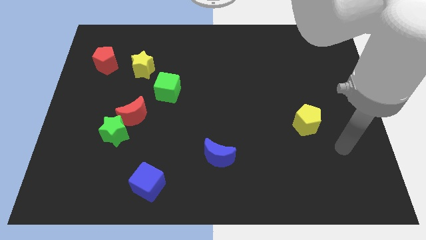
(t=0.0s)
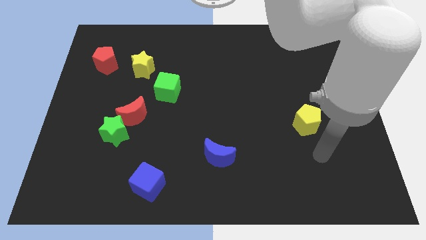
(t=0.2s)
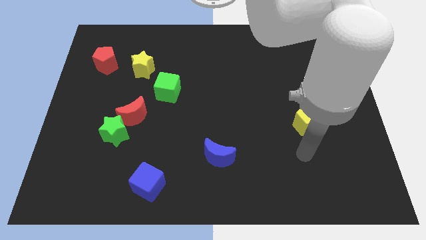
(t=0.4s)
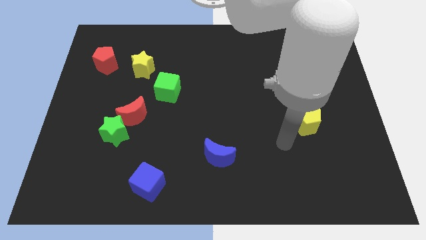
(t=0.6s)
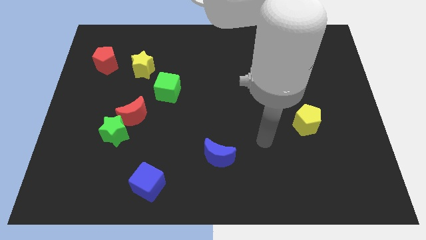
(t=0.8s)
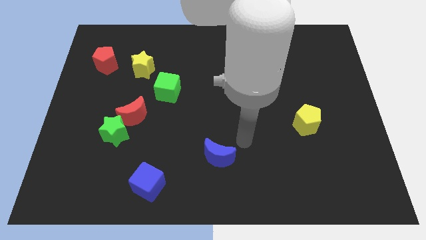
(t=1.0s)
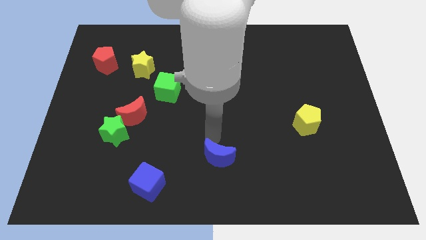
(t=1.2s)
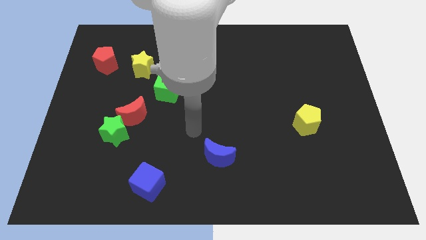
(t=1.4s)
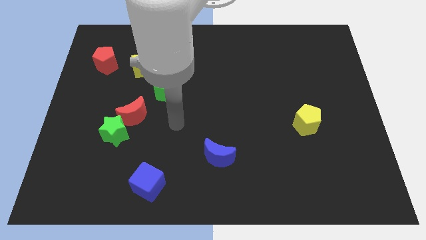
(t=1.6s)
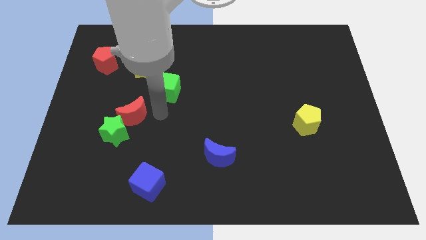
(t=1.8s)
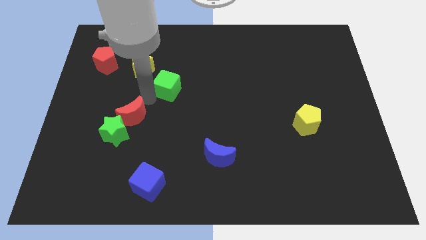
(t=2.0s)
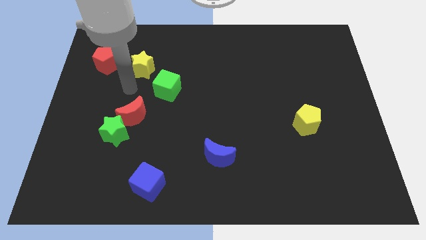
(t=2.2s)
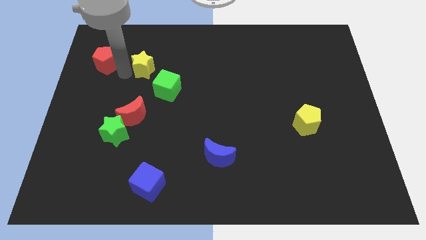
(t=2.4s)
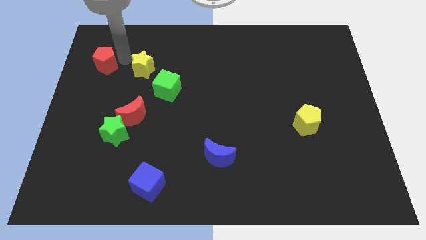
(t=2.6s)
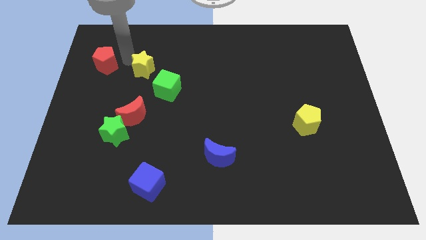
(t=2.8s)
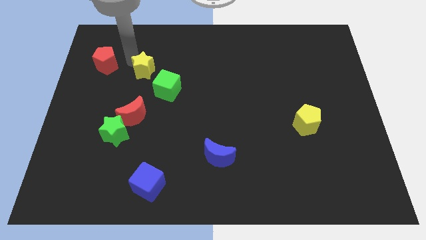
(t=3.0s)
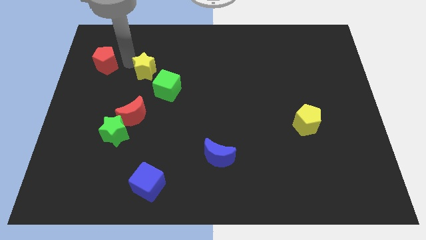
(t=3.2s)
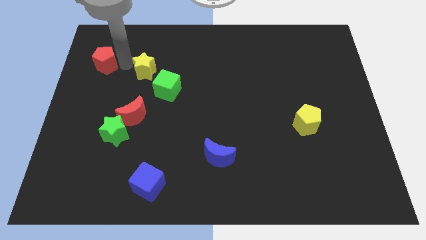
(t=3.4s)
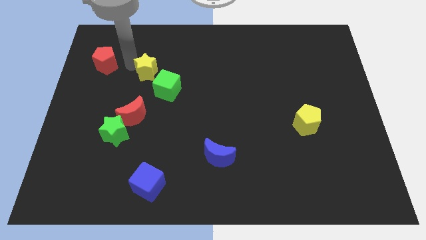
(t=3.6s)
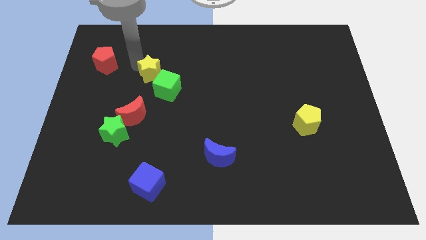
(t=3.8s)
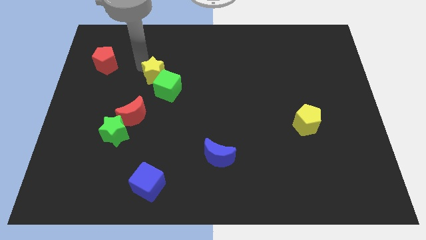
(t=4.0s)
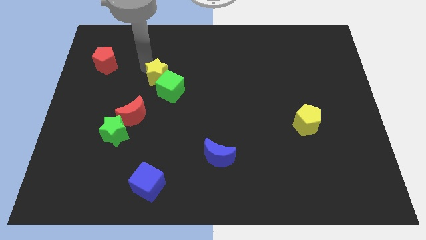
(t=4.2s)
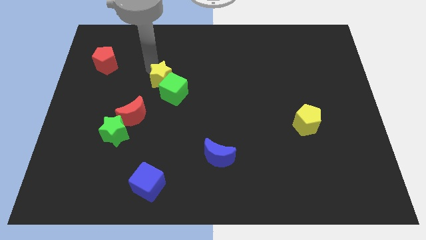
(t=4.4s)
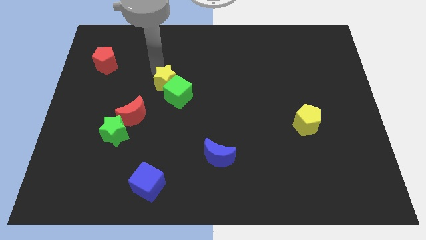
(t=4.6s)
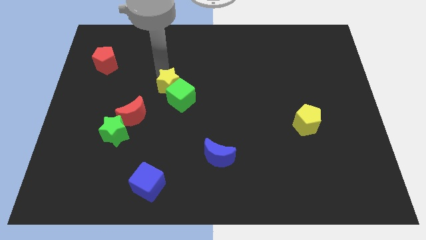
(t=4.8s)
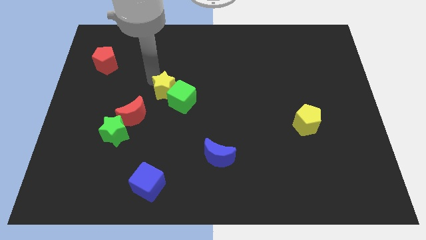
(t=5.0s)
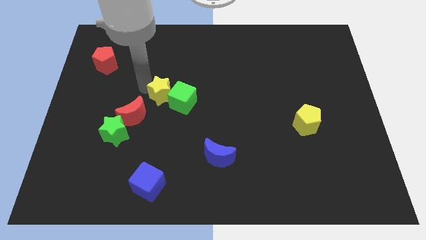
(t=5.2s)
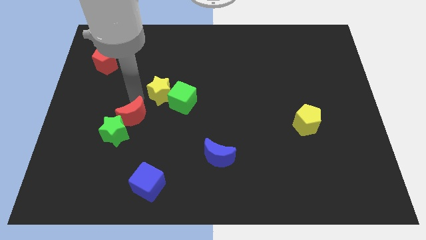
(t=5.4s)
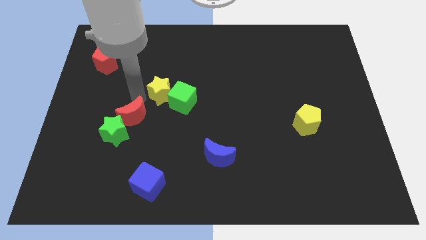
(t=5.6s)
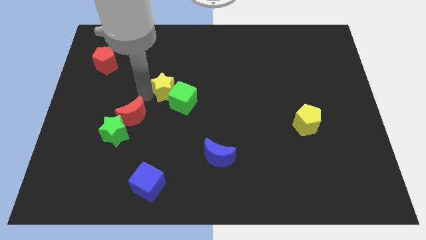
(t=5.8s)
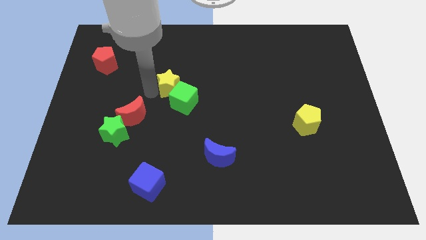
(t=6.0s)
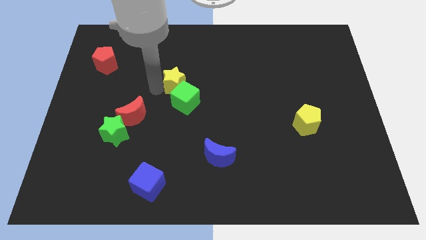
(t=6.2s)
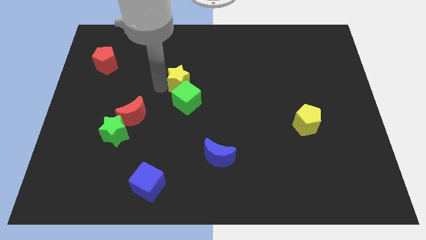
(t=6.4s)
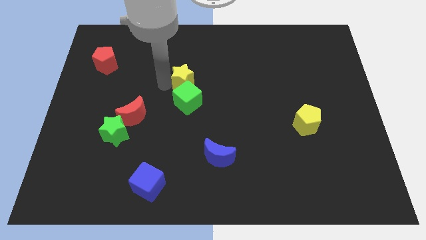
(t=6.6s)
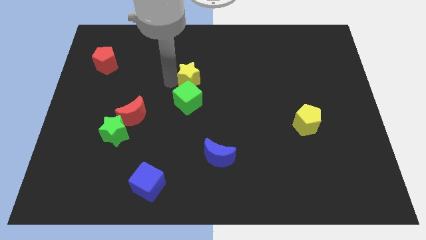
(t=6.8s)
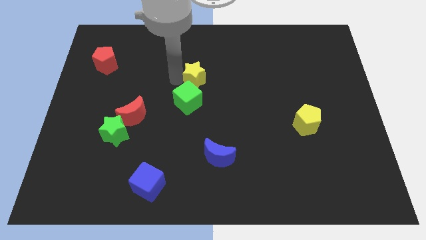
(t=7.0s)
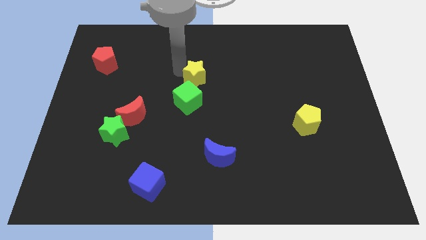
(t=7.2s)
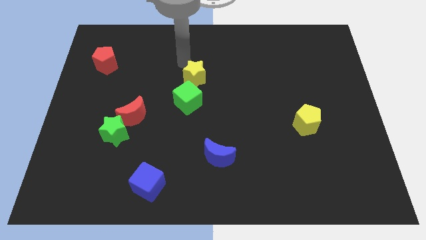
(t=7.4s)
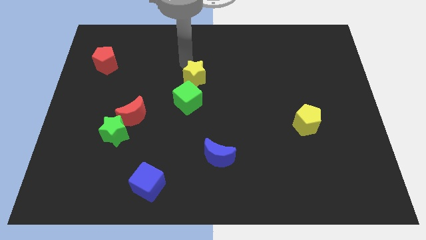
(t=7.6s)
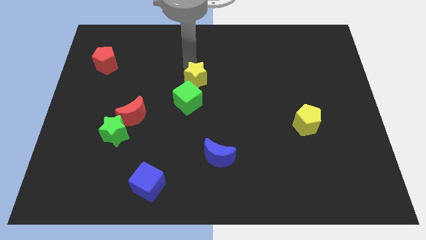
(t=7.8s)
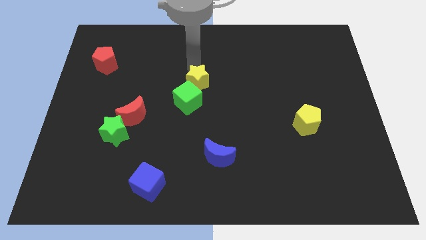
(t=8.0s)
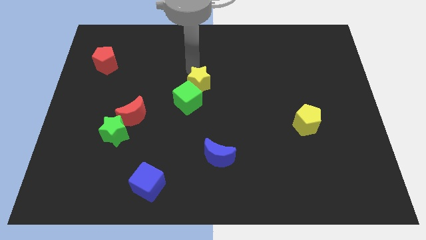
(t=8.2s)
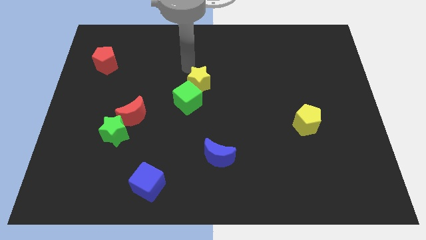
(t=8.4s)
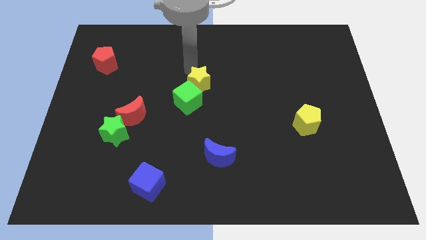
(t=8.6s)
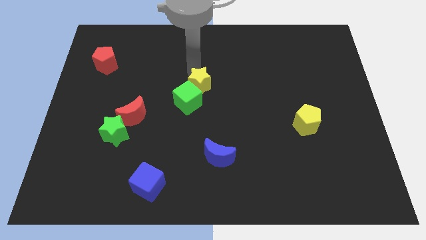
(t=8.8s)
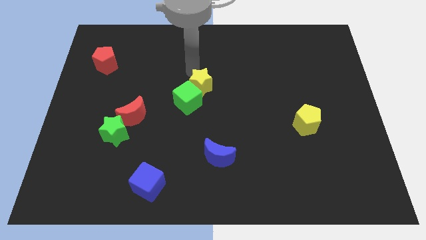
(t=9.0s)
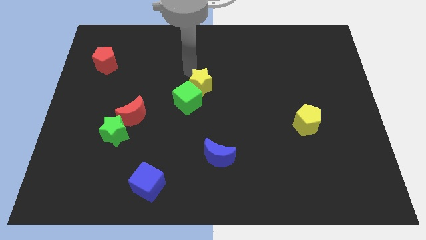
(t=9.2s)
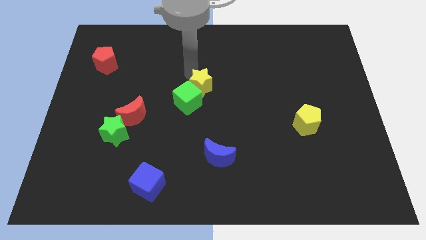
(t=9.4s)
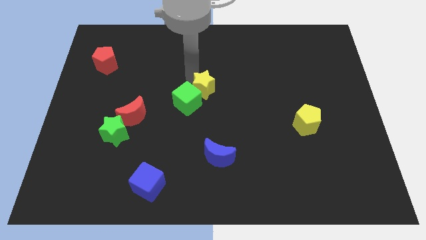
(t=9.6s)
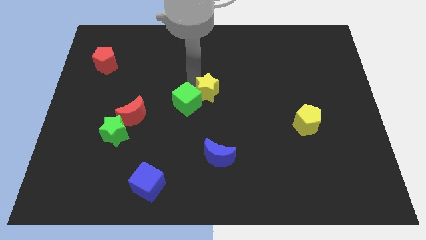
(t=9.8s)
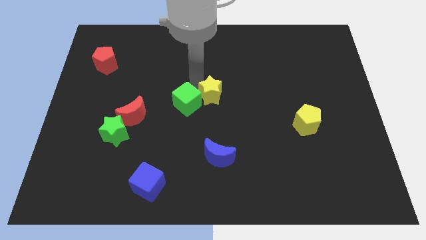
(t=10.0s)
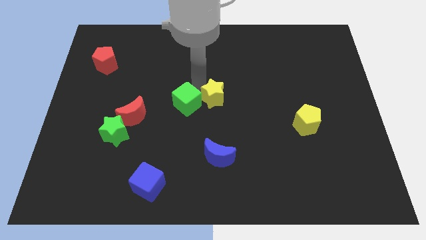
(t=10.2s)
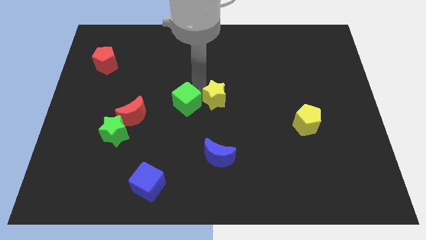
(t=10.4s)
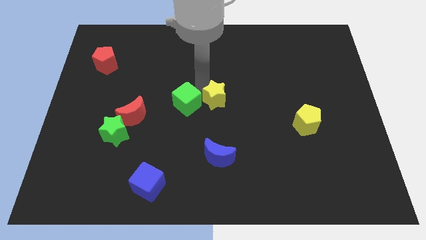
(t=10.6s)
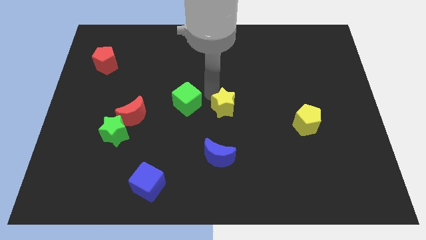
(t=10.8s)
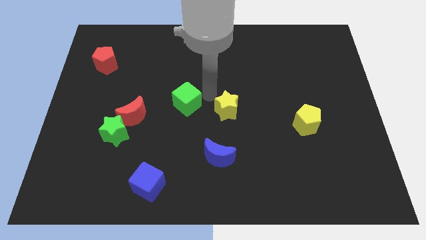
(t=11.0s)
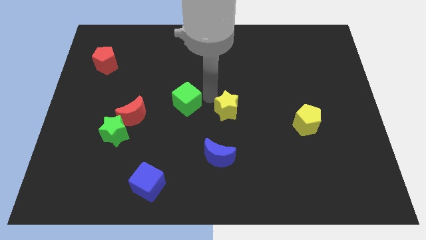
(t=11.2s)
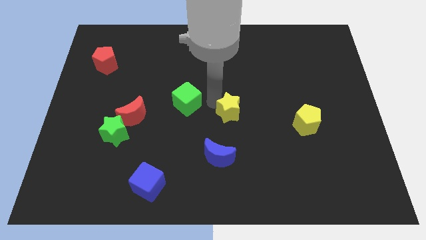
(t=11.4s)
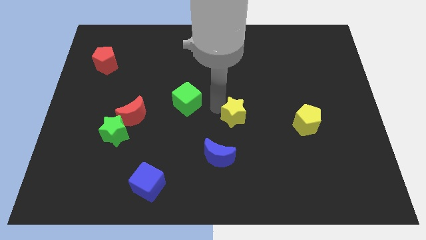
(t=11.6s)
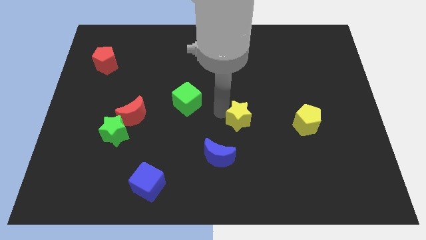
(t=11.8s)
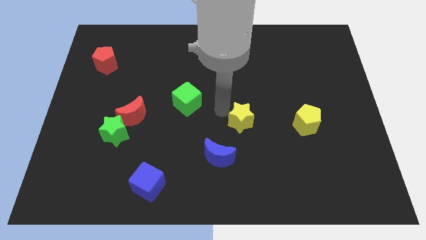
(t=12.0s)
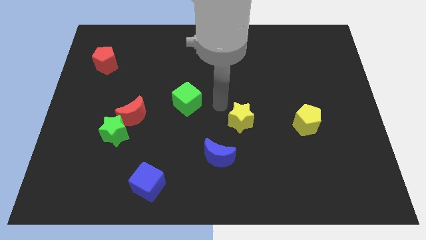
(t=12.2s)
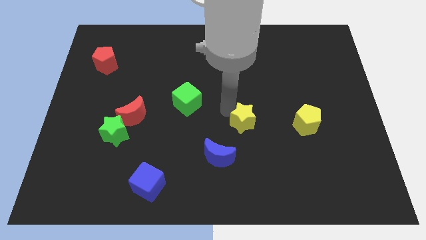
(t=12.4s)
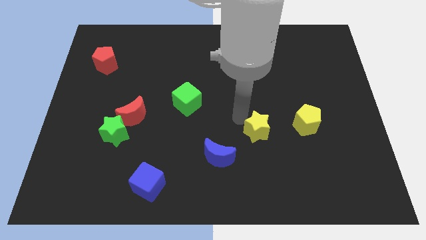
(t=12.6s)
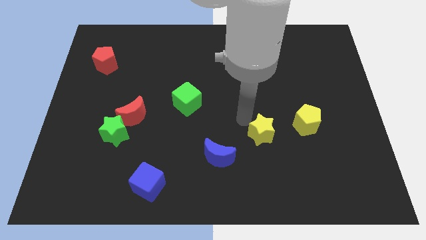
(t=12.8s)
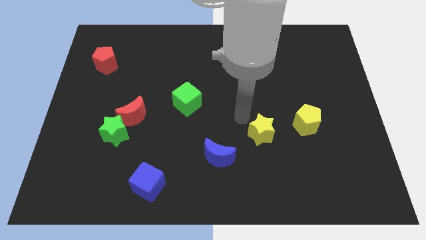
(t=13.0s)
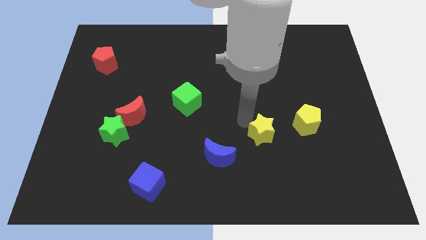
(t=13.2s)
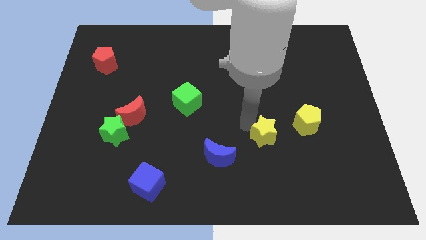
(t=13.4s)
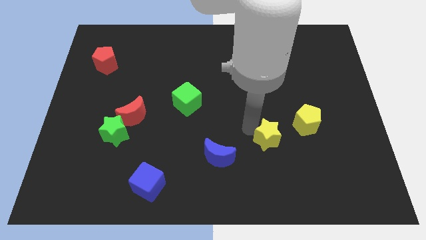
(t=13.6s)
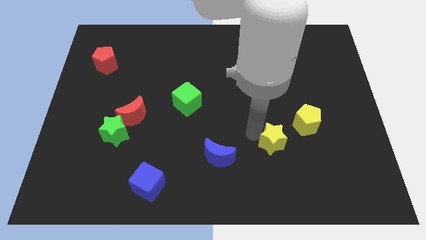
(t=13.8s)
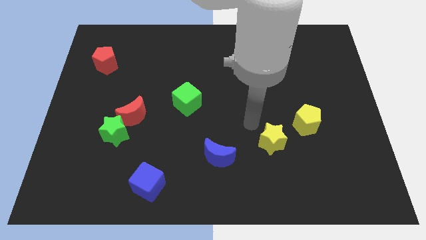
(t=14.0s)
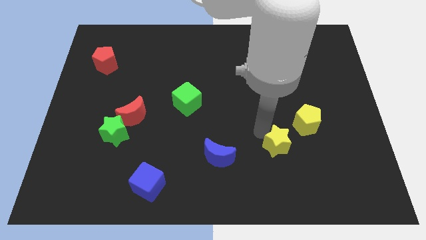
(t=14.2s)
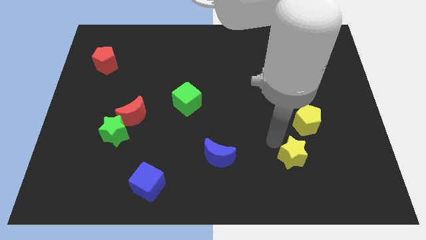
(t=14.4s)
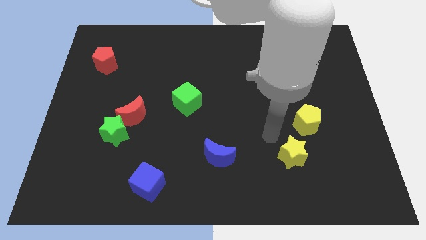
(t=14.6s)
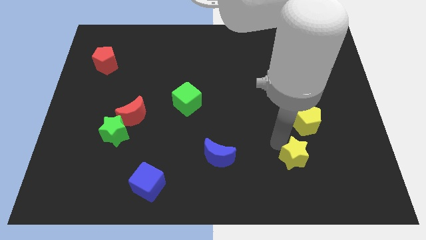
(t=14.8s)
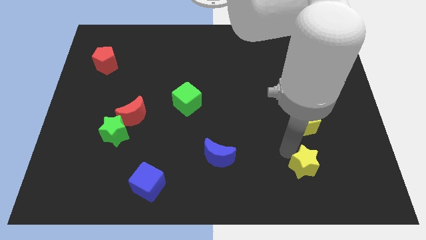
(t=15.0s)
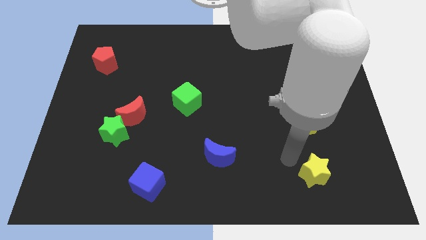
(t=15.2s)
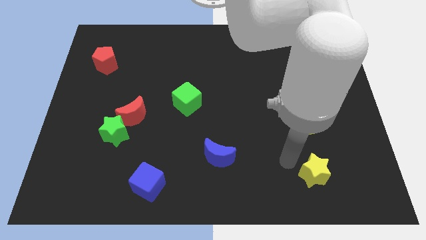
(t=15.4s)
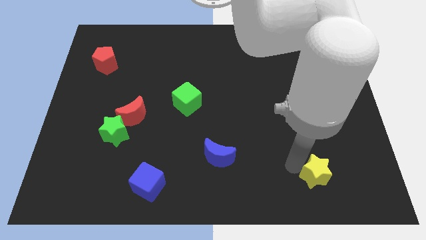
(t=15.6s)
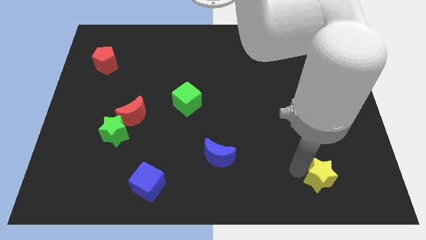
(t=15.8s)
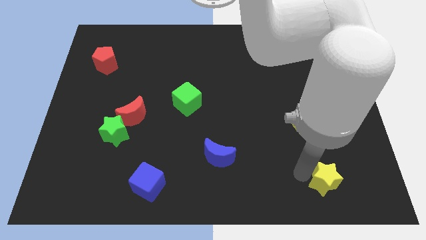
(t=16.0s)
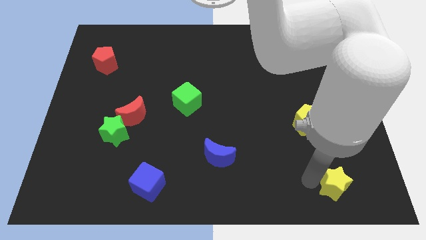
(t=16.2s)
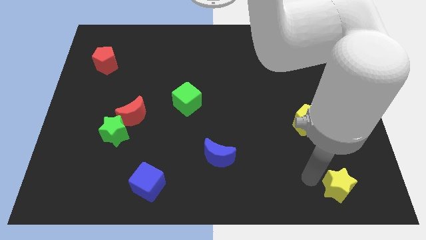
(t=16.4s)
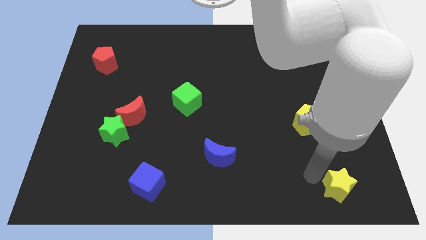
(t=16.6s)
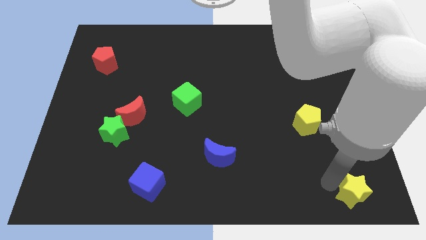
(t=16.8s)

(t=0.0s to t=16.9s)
slide the yellow star to the lower right corner
